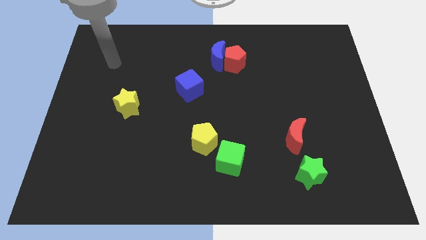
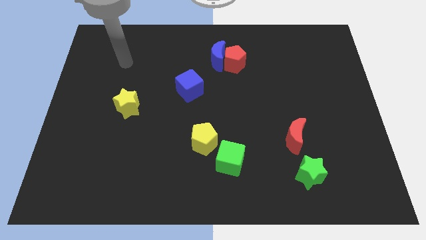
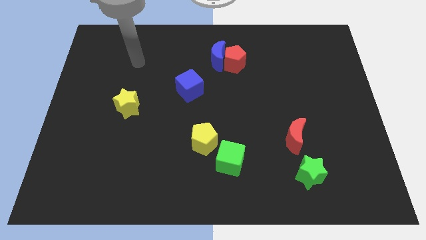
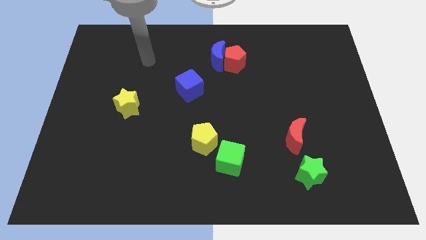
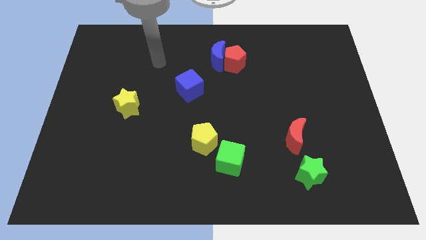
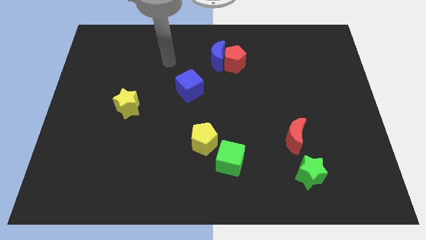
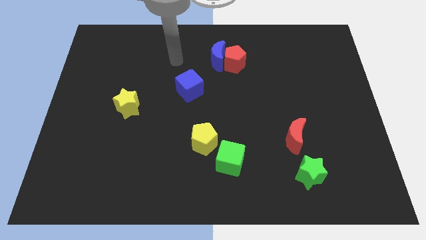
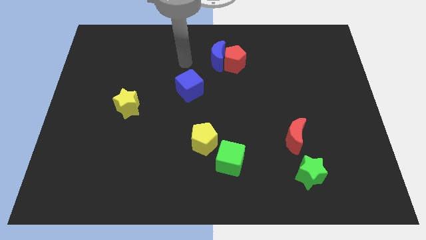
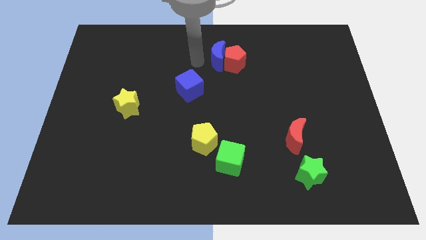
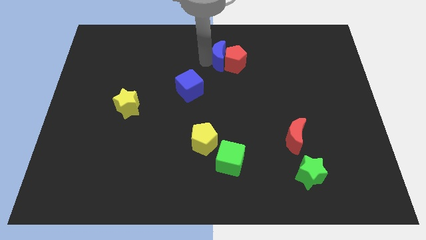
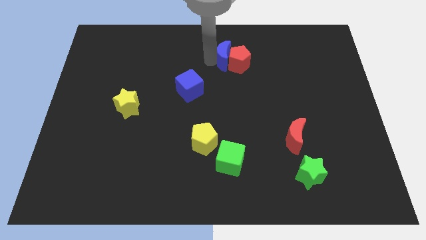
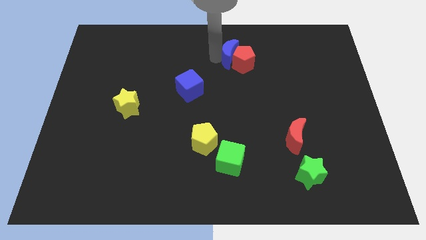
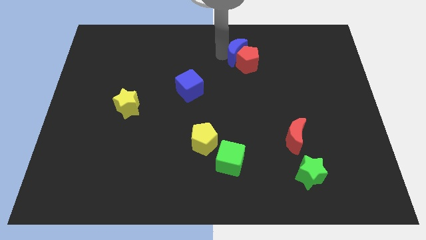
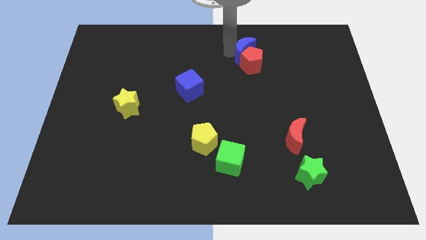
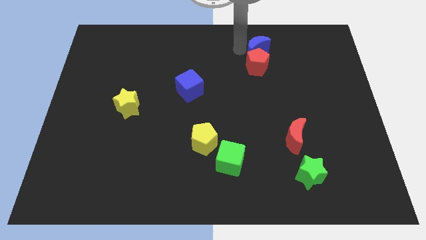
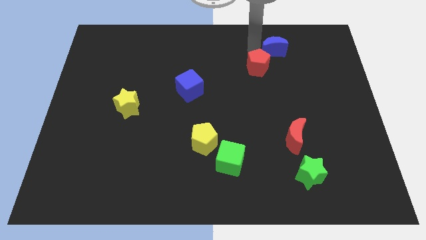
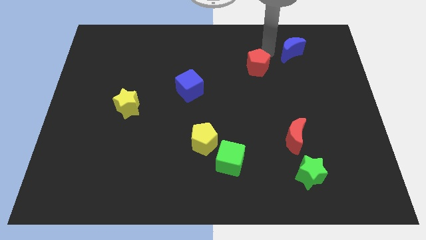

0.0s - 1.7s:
pull the red pentagon apart from the blue moon

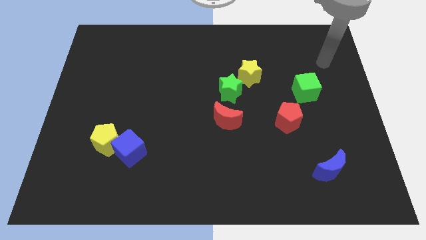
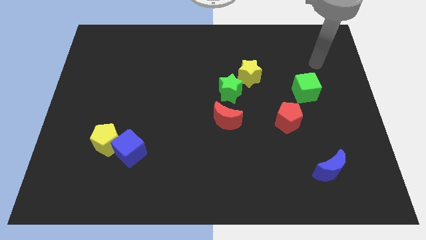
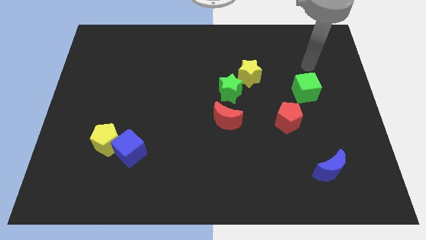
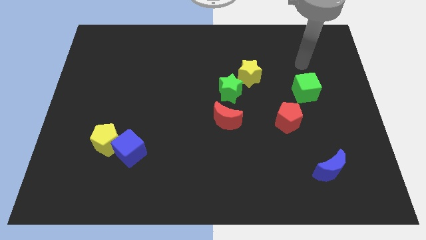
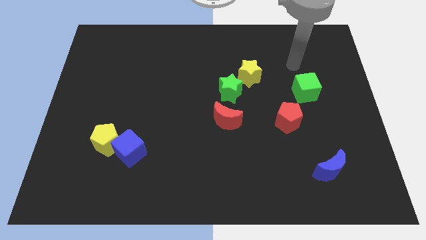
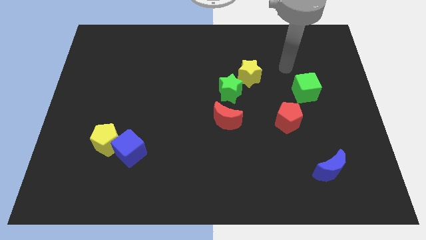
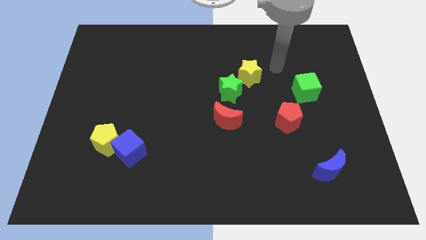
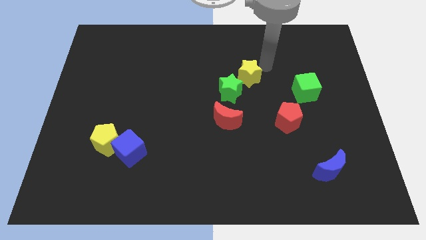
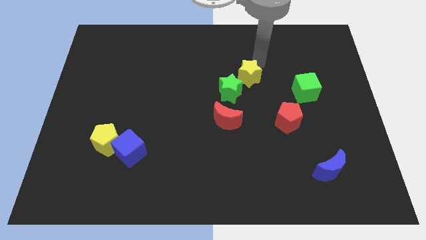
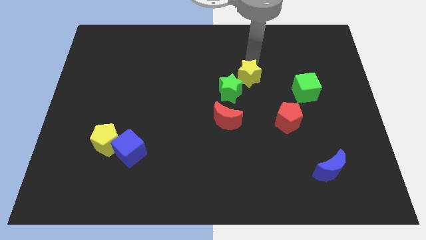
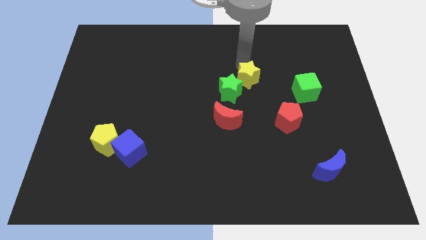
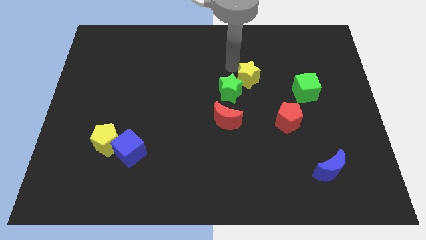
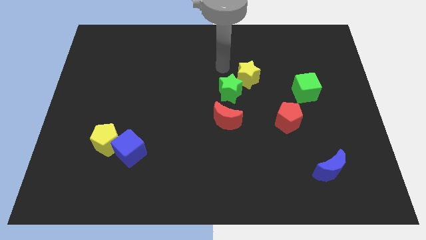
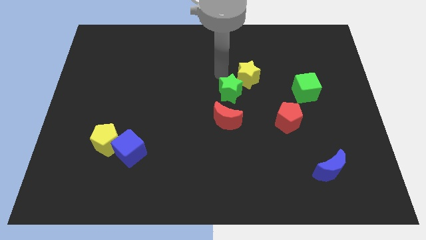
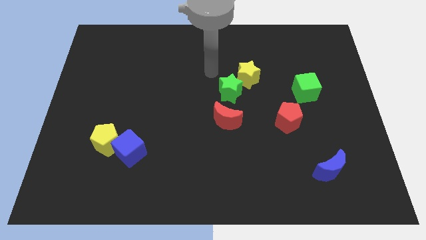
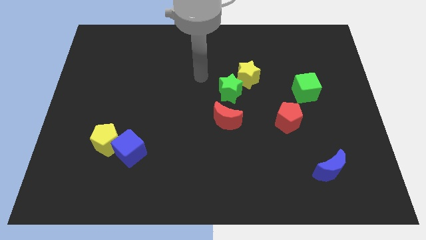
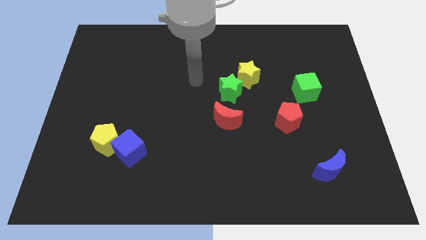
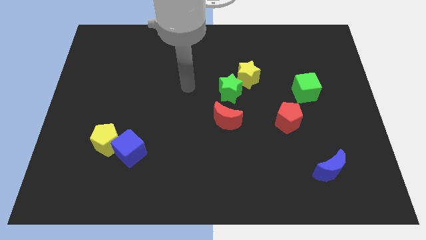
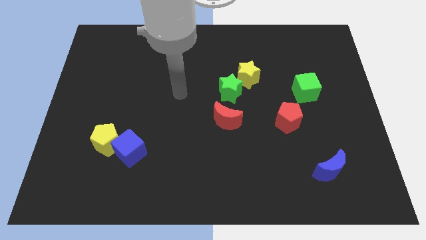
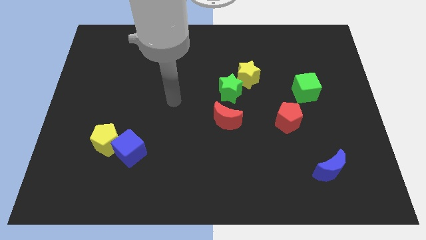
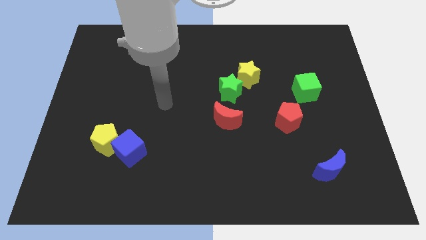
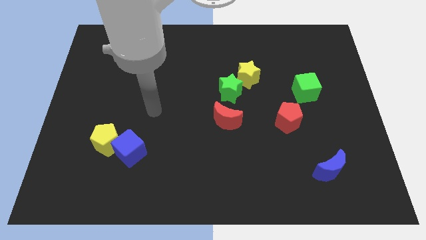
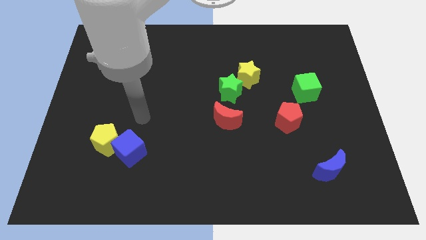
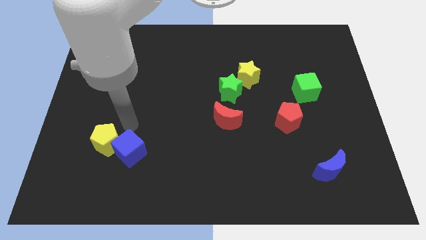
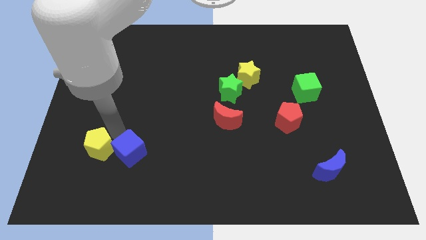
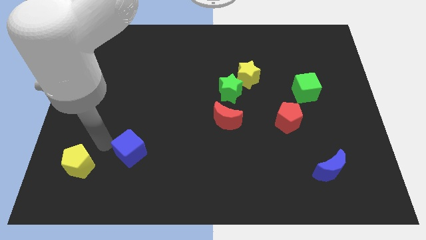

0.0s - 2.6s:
separate the blue cube from the yellow pentagon

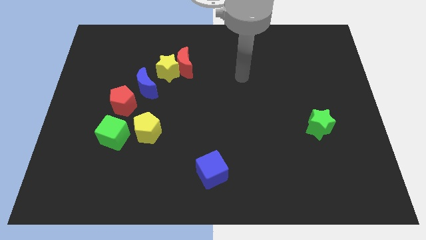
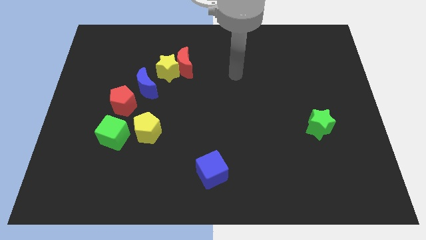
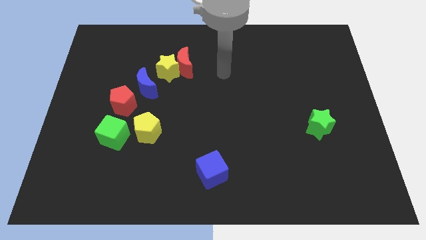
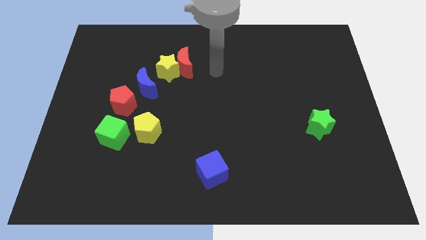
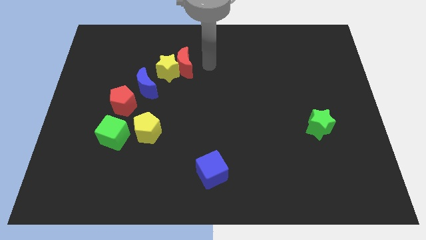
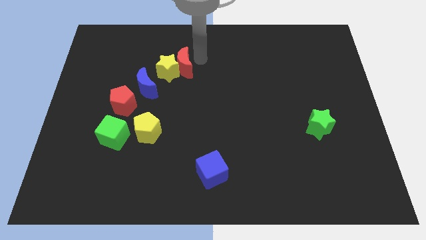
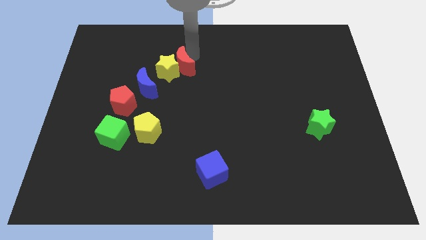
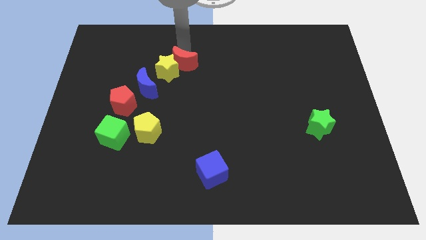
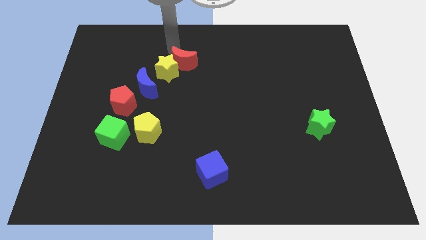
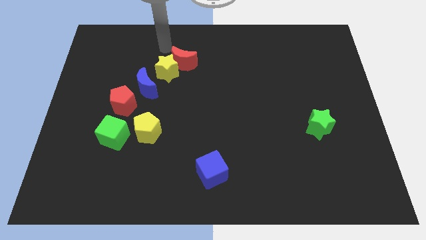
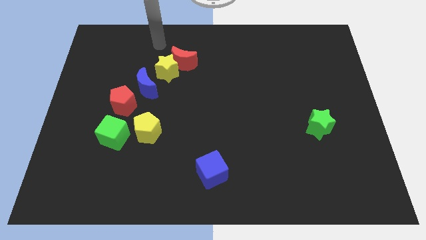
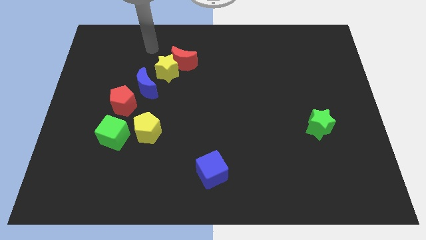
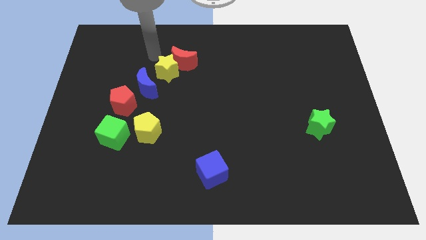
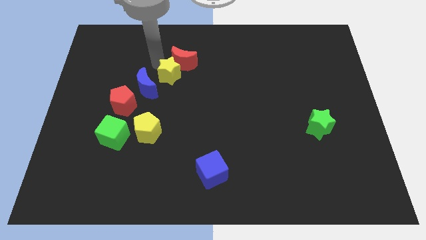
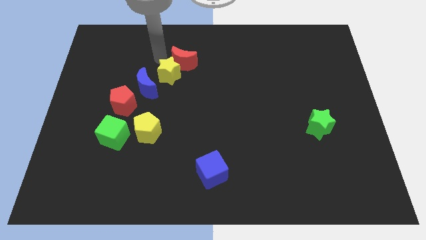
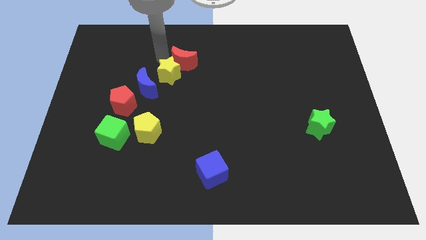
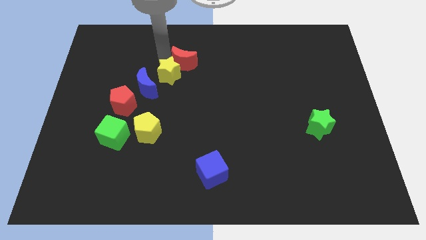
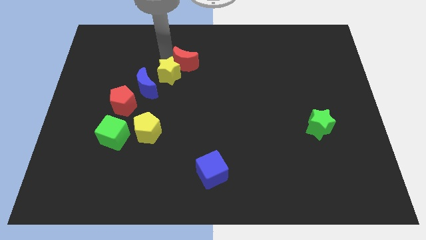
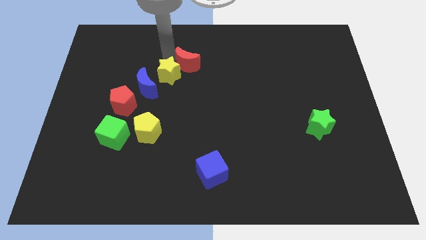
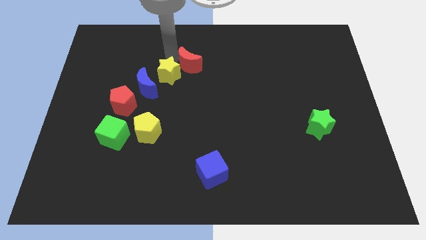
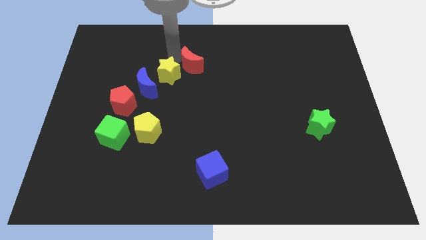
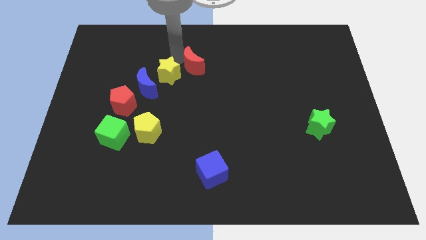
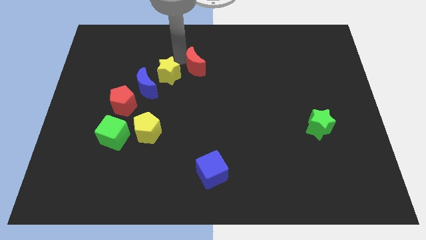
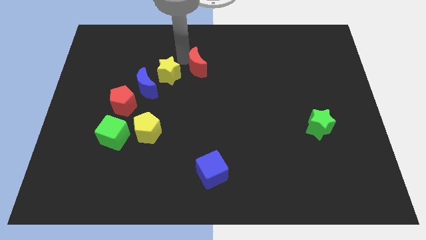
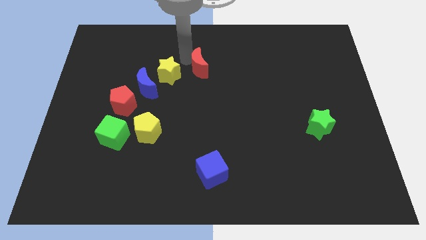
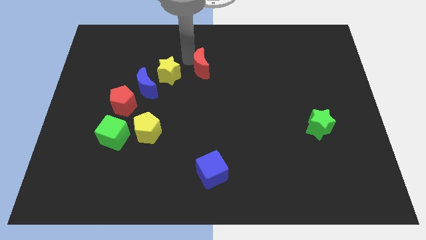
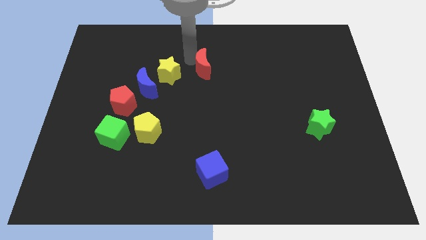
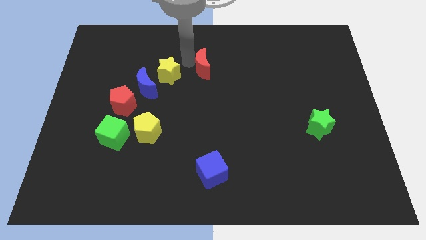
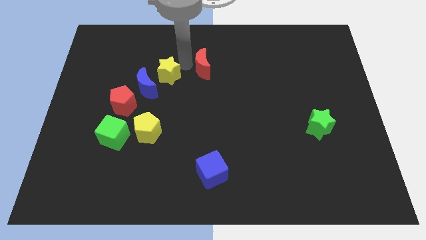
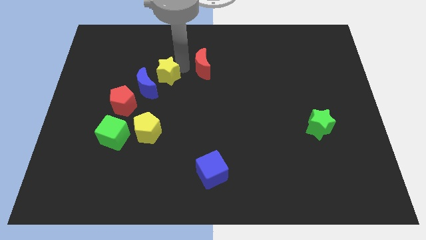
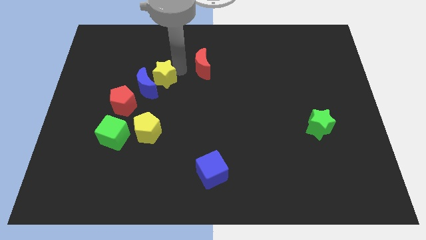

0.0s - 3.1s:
pull the red moon apart from the yellow star

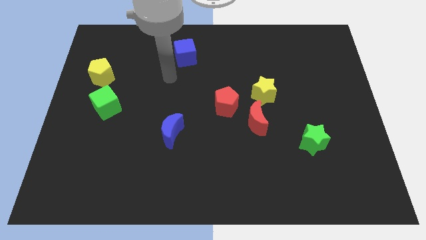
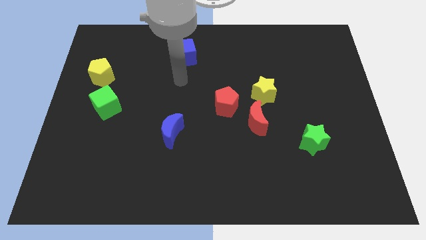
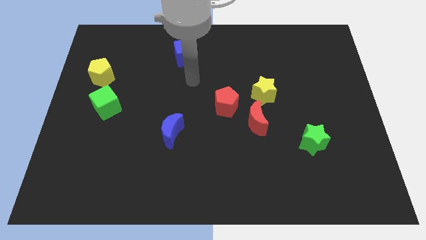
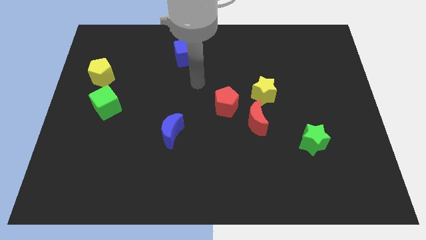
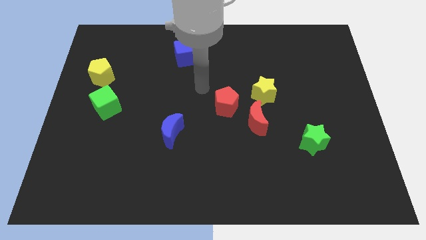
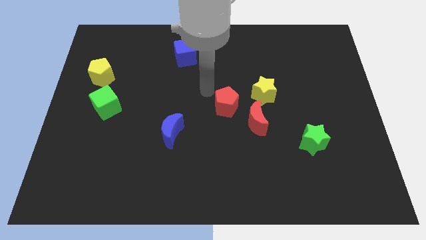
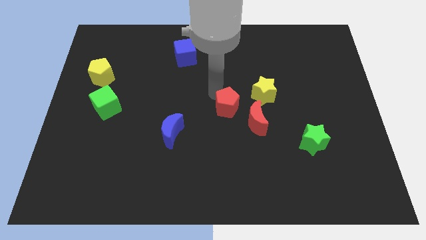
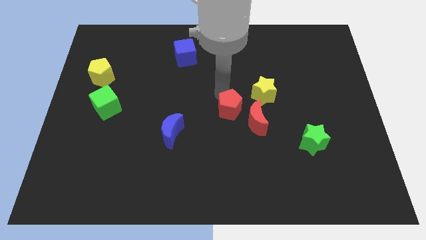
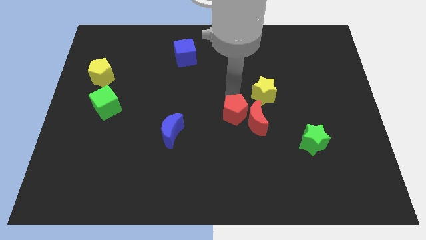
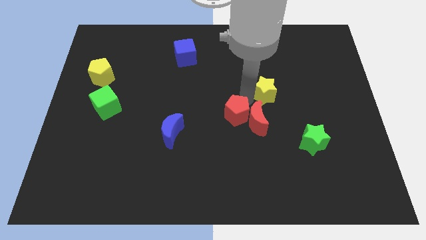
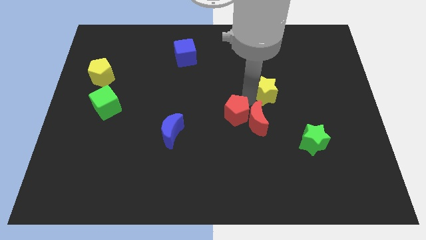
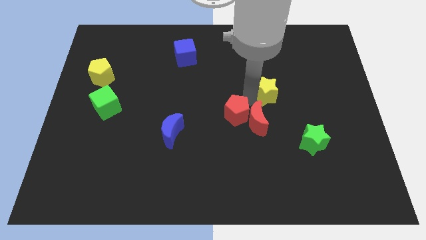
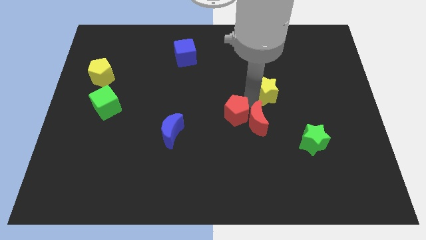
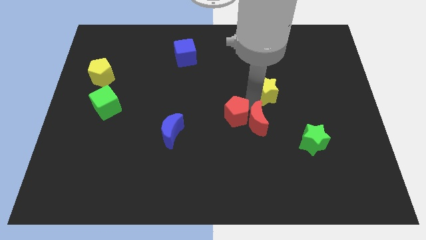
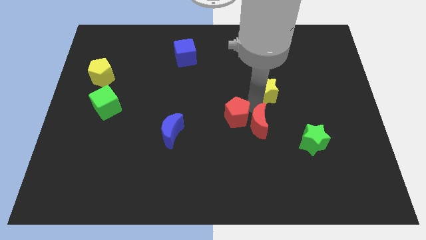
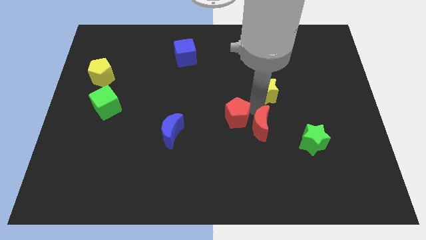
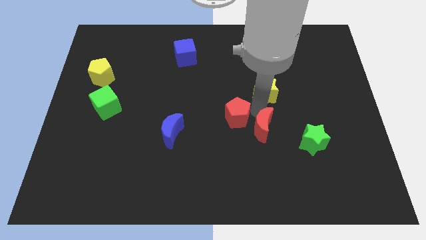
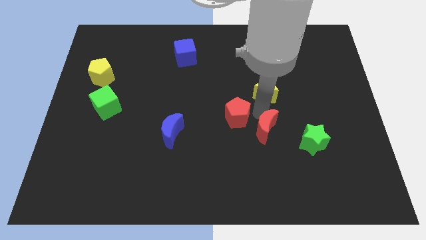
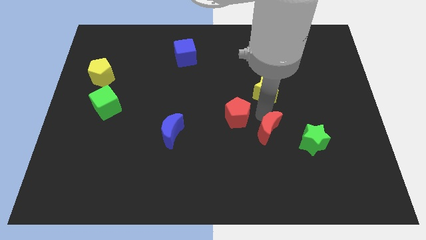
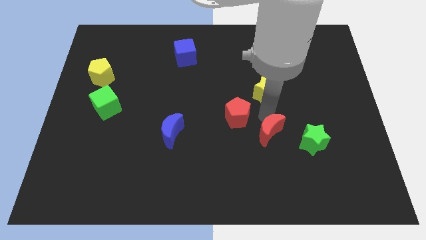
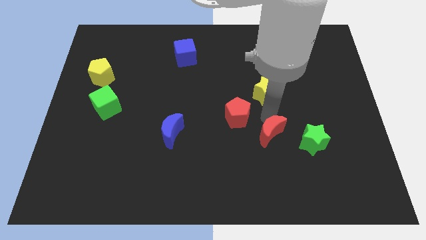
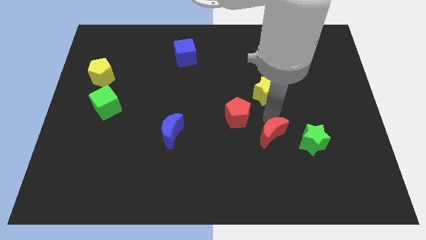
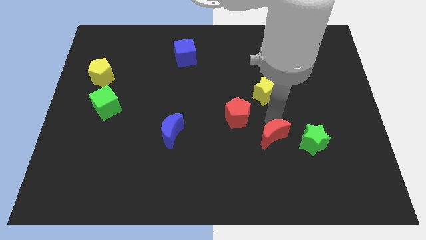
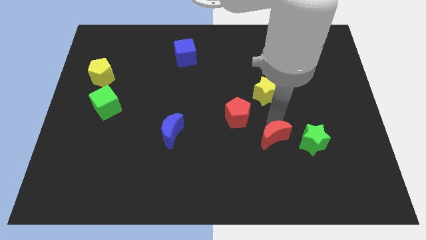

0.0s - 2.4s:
move the red moon away from the yellow star and red pentagon
